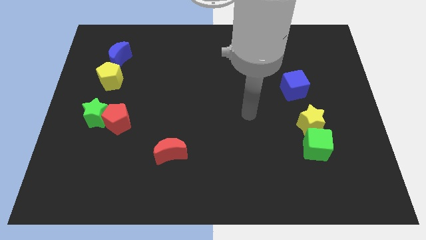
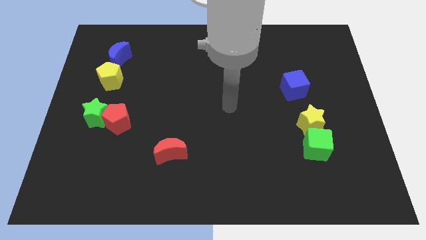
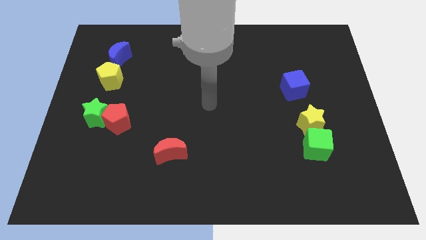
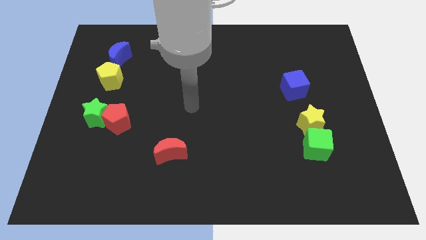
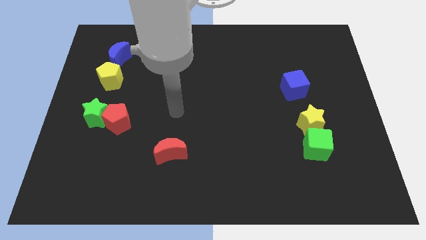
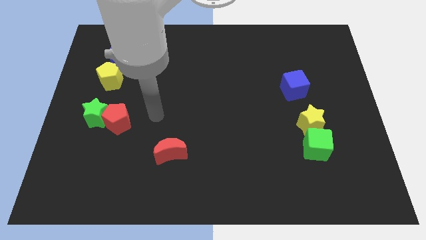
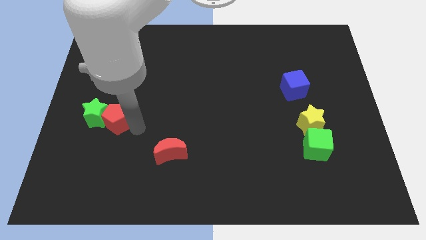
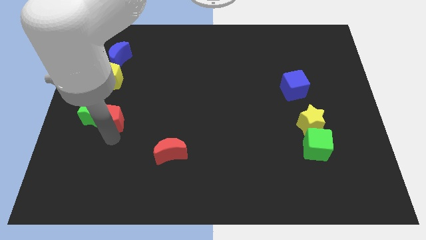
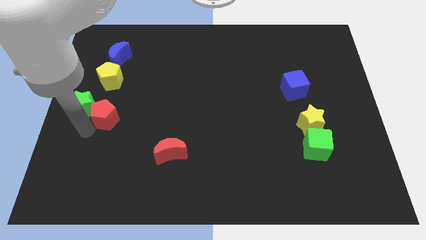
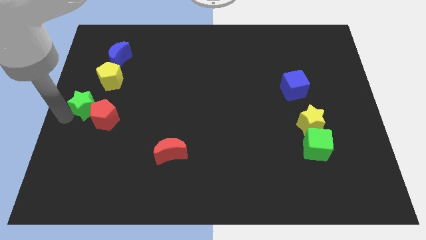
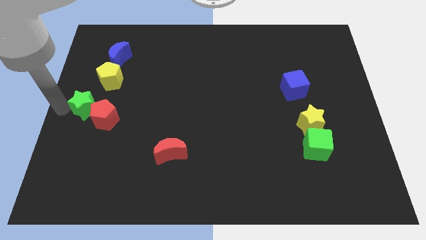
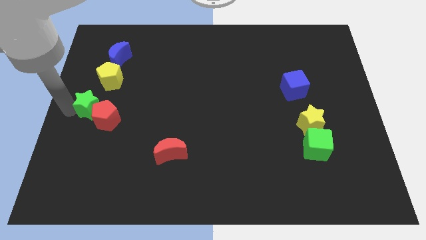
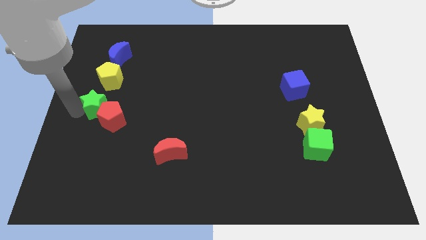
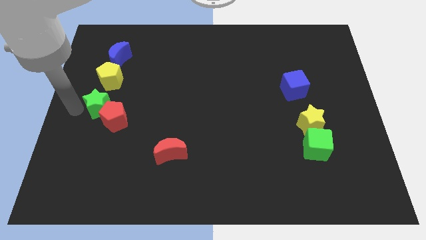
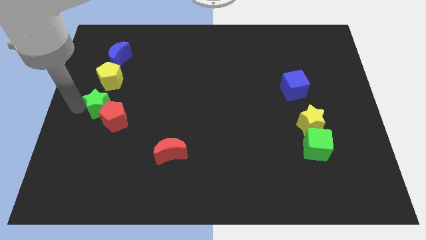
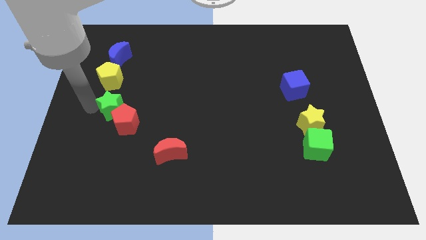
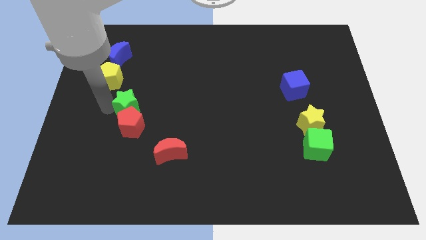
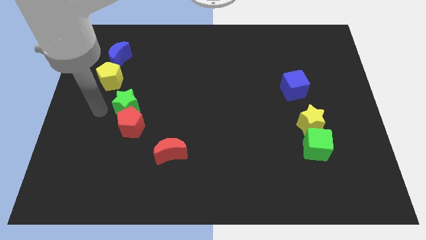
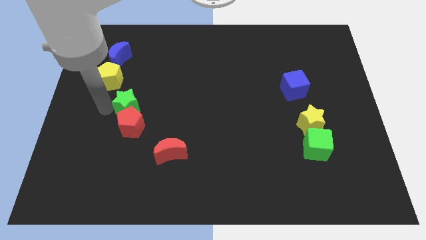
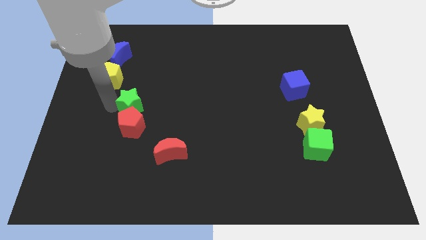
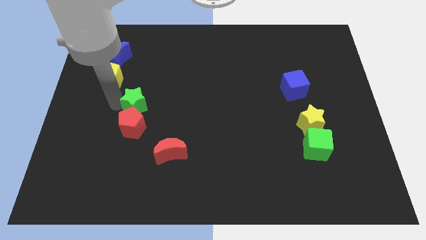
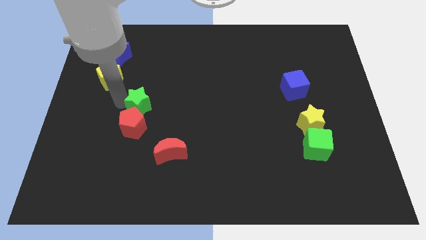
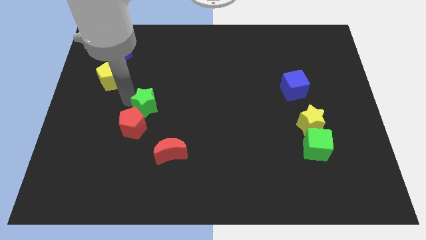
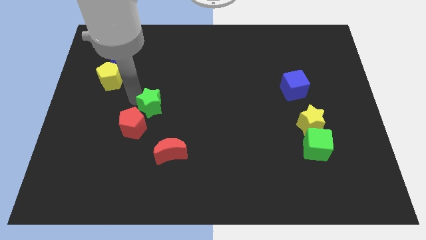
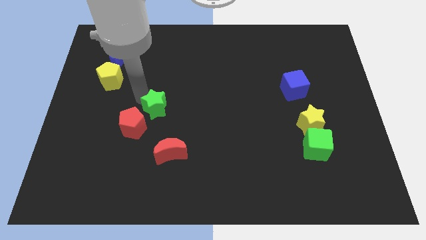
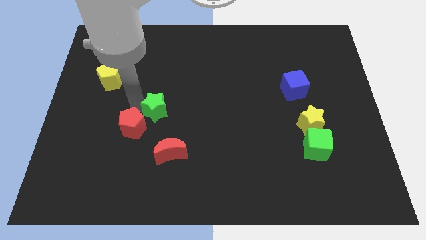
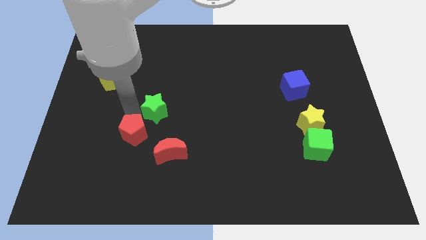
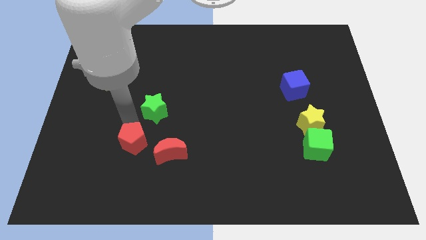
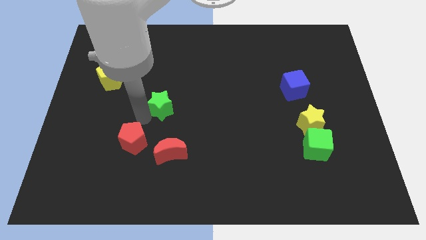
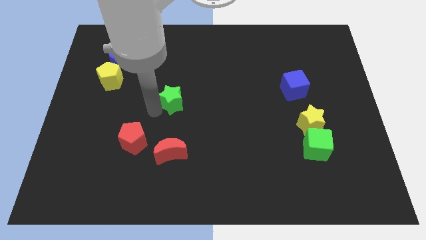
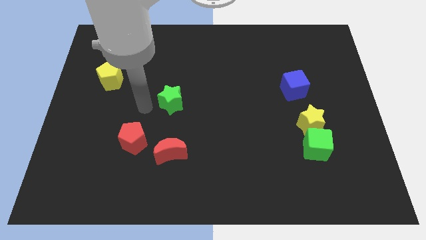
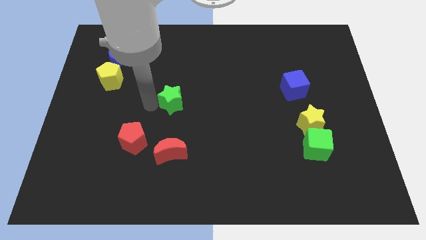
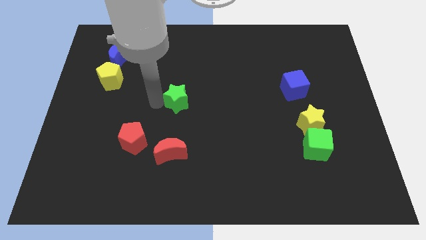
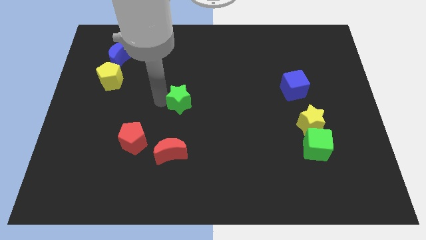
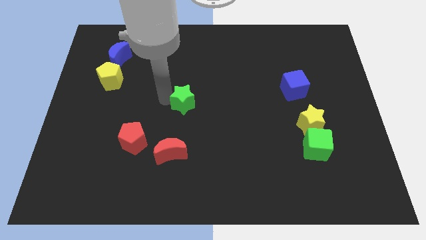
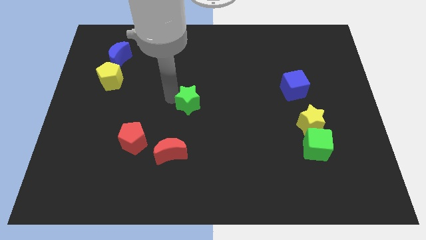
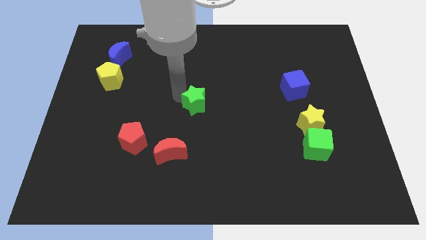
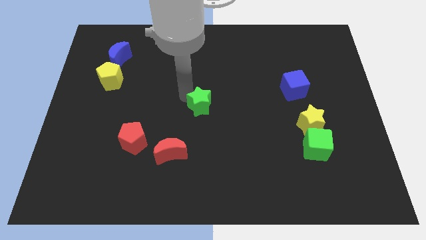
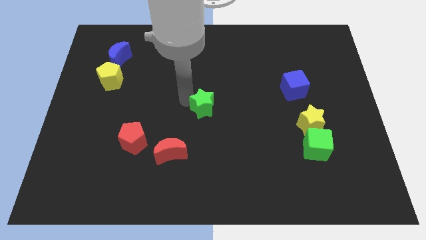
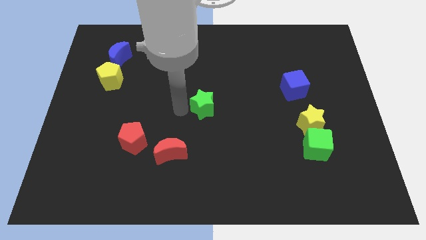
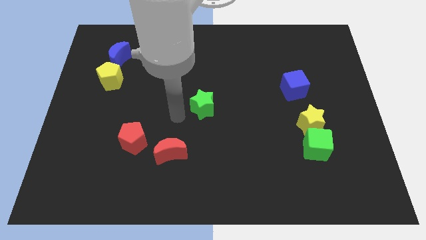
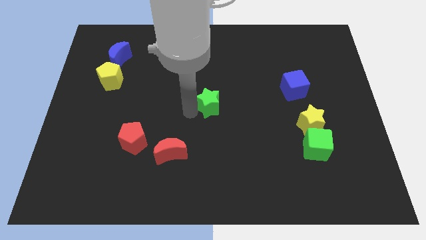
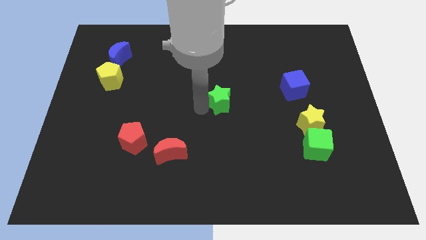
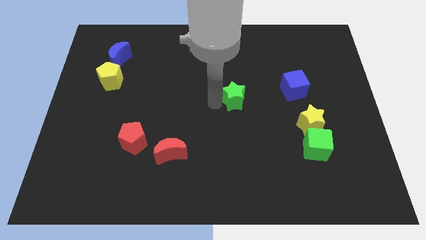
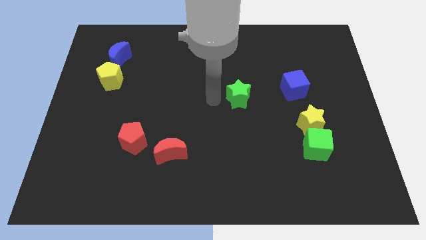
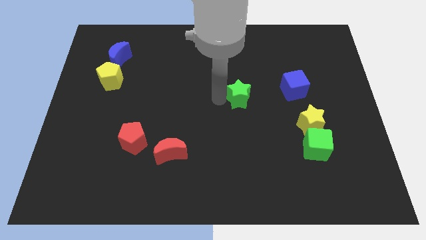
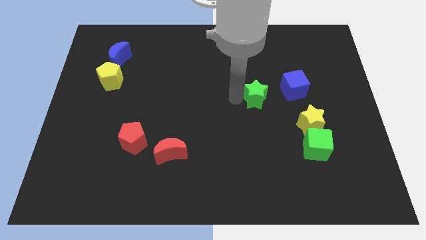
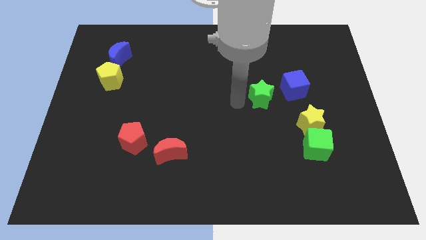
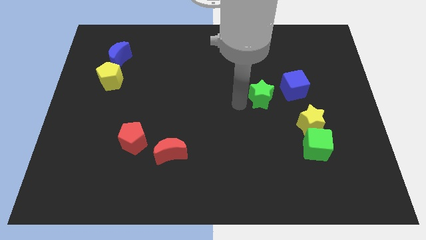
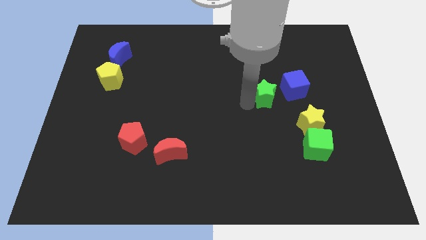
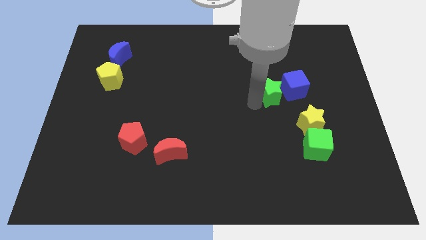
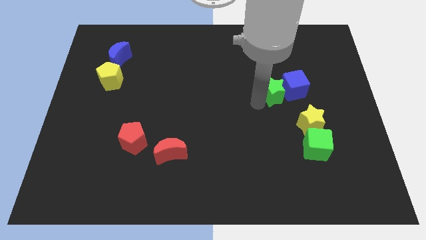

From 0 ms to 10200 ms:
push the green star towards the blue cube

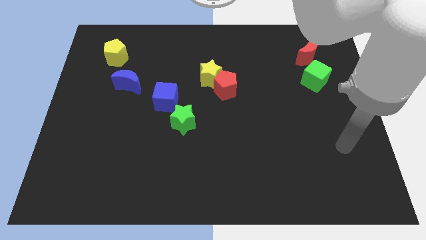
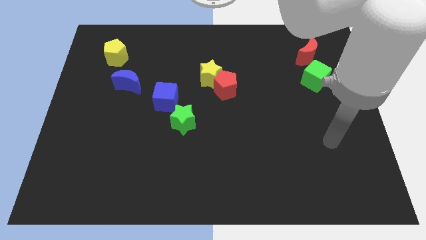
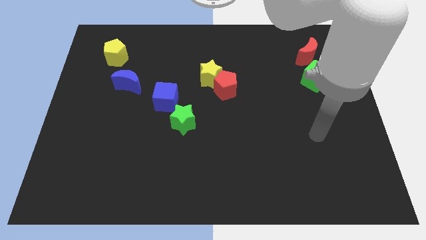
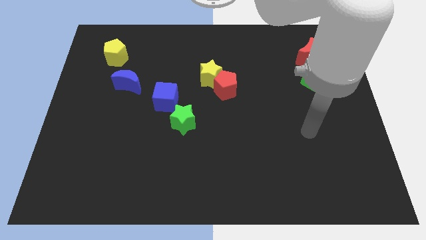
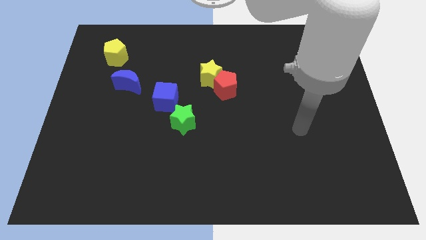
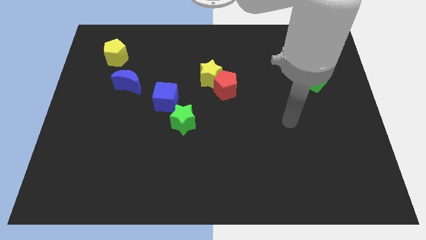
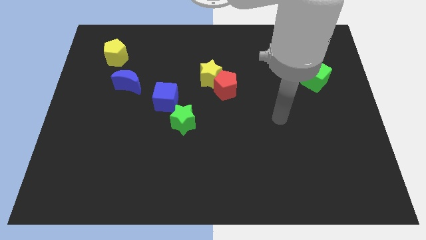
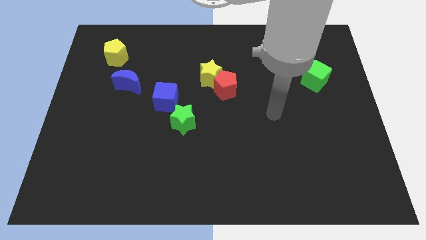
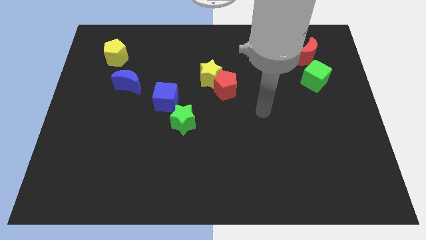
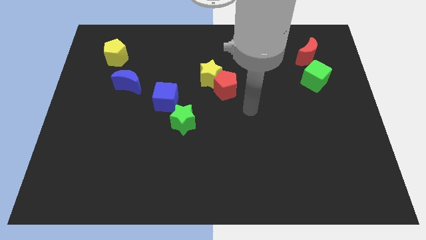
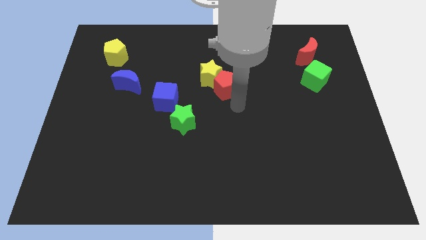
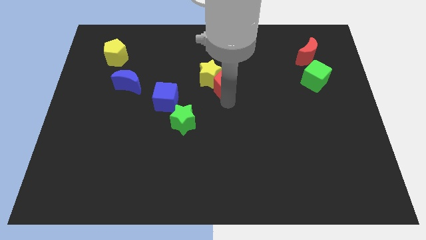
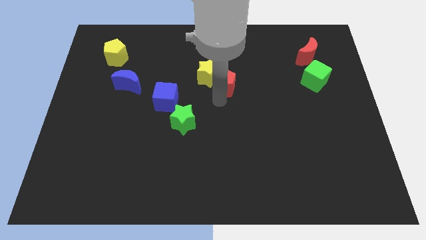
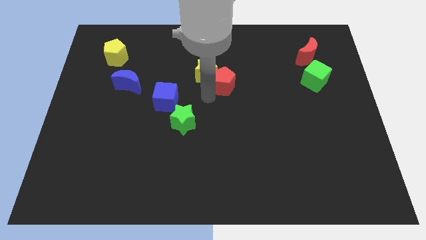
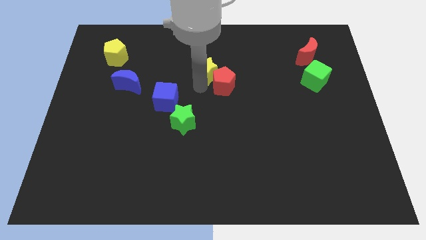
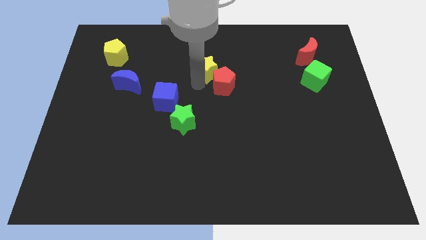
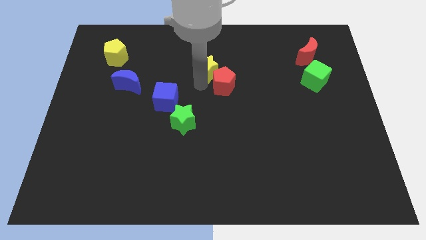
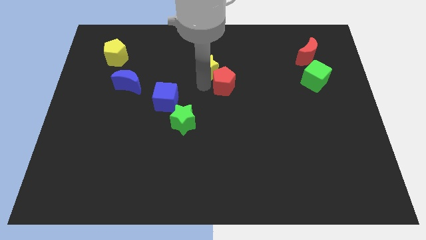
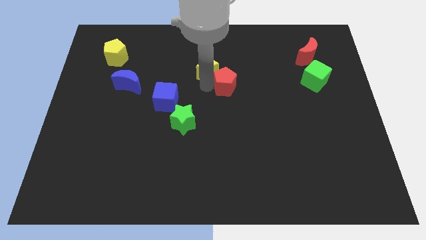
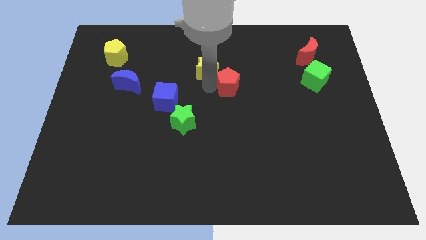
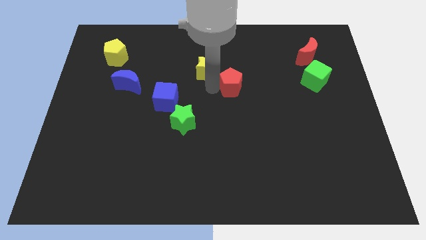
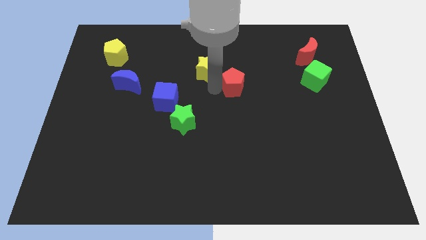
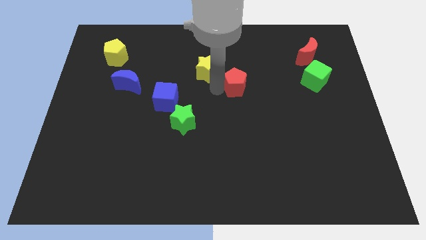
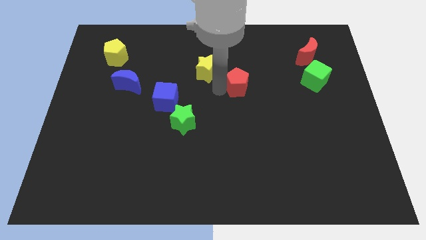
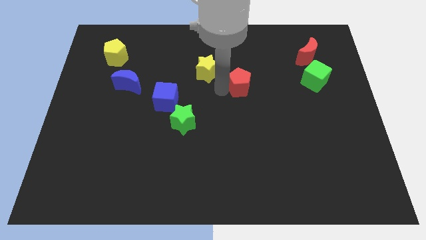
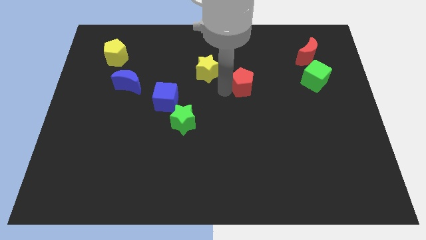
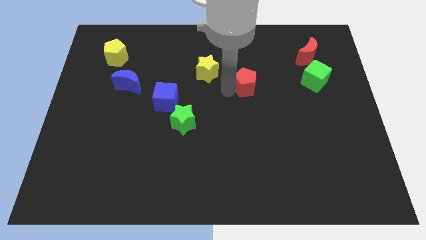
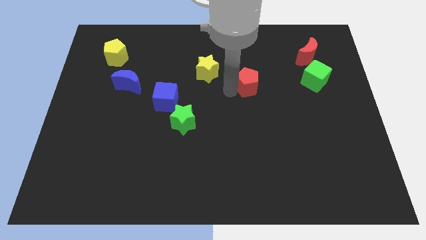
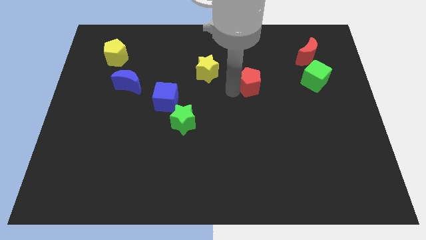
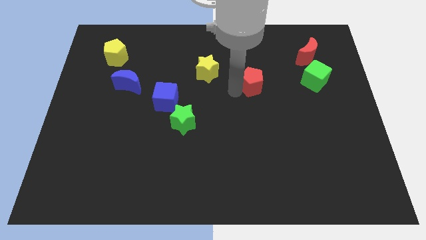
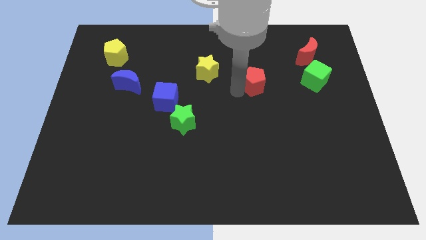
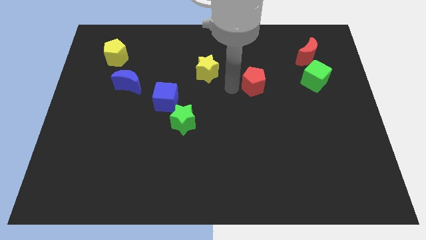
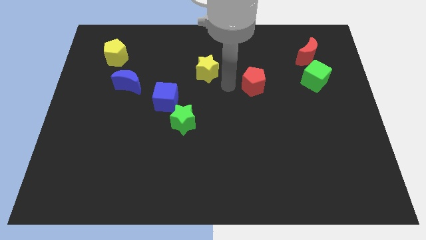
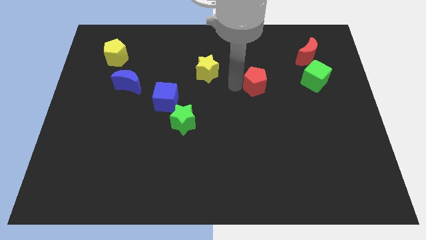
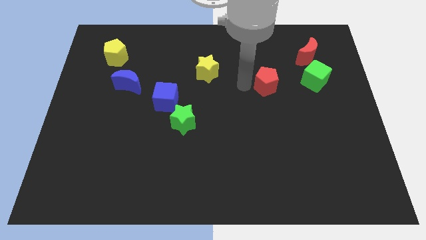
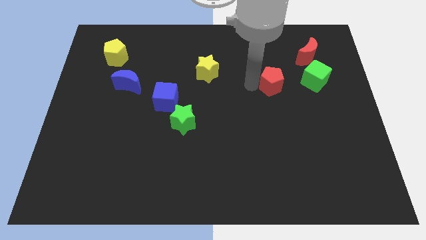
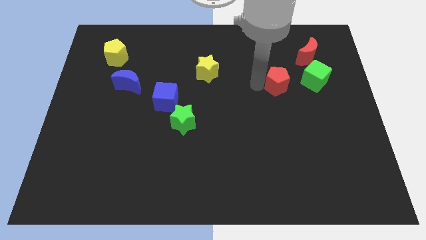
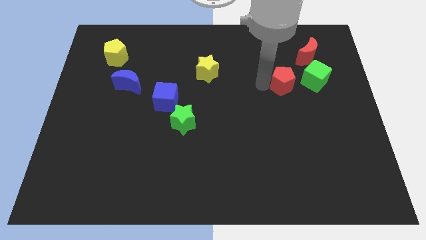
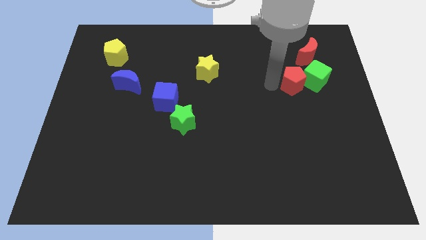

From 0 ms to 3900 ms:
move the red pentagon next to the green cube
